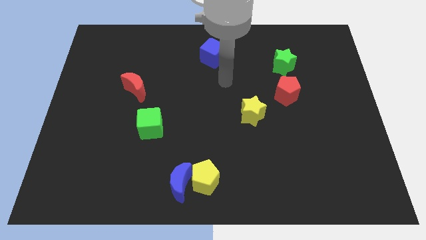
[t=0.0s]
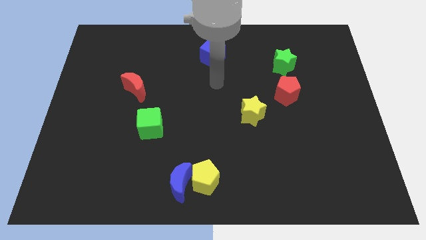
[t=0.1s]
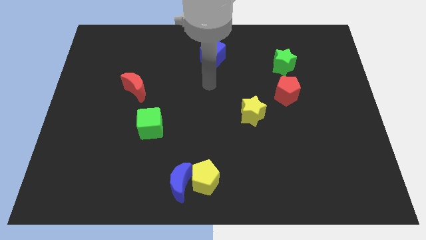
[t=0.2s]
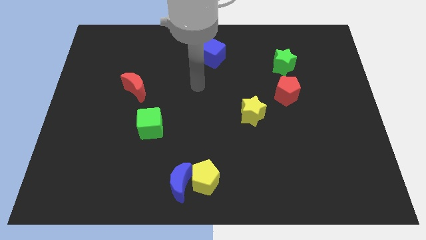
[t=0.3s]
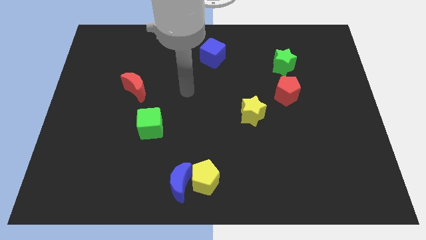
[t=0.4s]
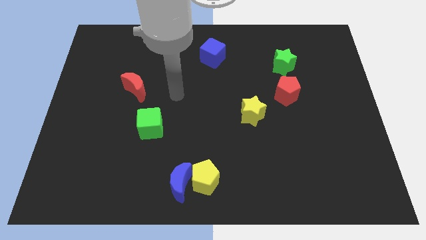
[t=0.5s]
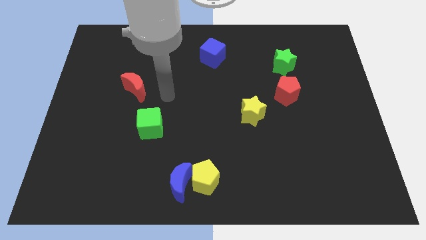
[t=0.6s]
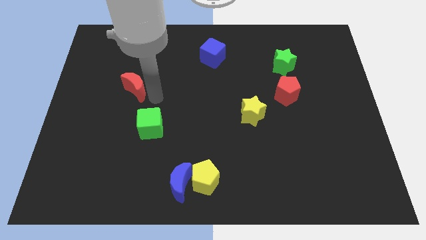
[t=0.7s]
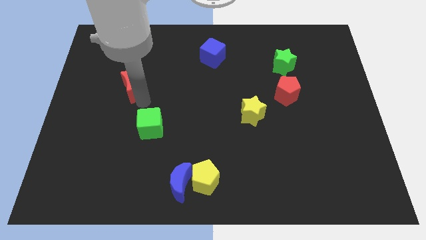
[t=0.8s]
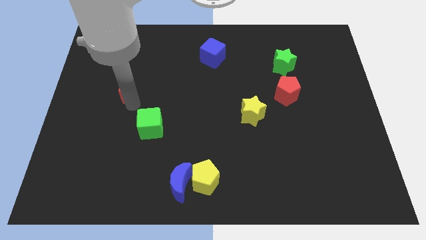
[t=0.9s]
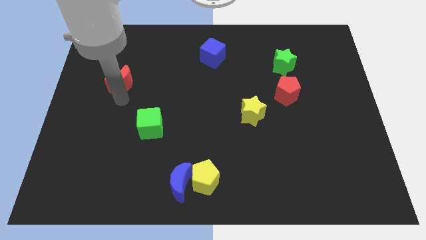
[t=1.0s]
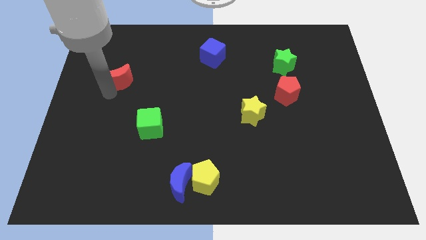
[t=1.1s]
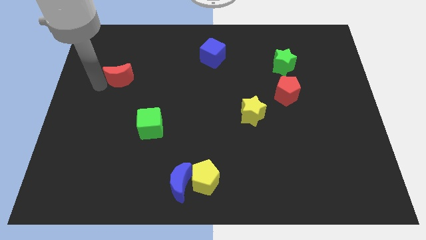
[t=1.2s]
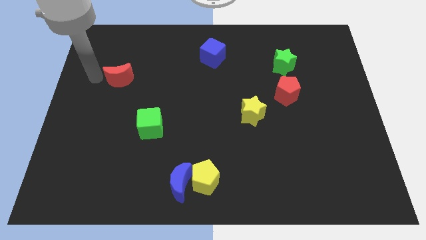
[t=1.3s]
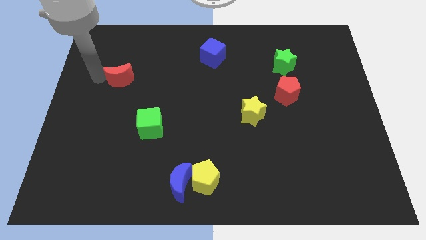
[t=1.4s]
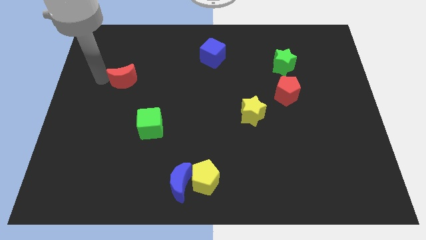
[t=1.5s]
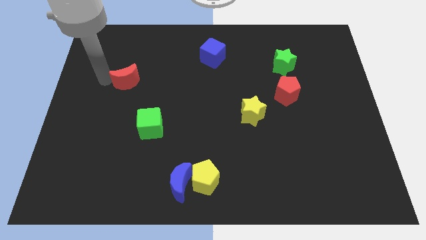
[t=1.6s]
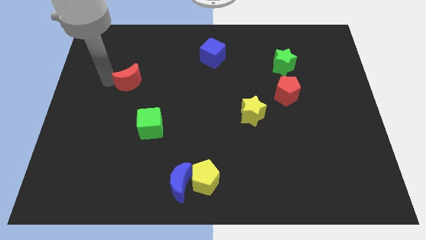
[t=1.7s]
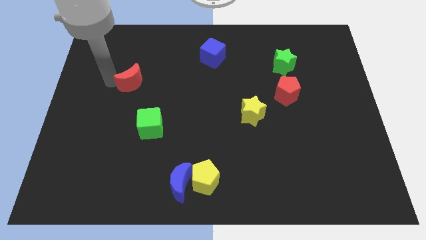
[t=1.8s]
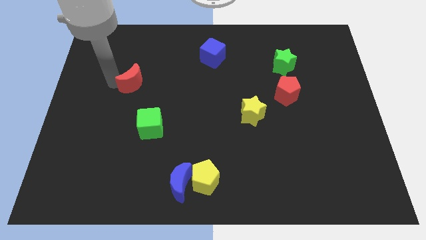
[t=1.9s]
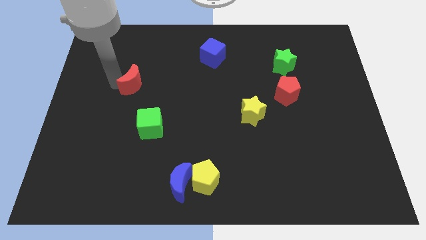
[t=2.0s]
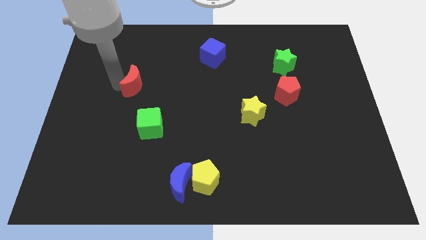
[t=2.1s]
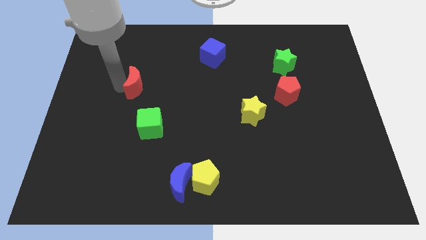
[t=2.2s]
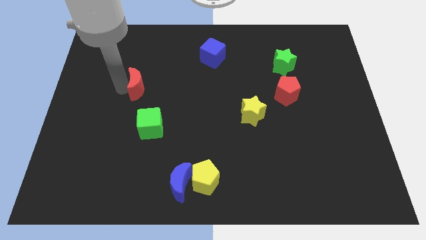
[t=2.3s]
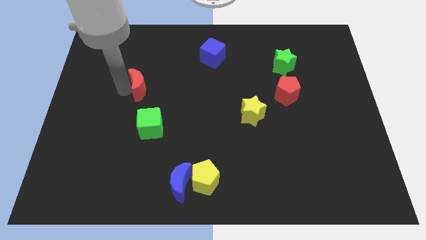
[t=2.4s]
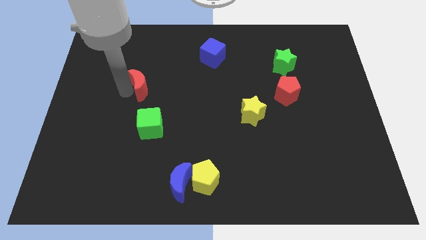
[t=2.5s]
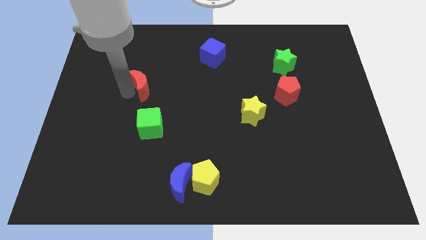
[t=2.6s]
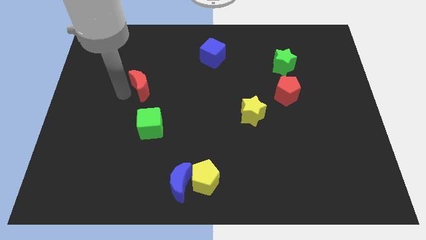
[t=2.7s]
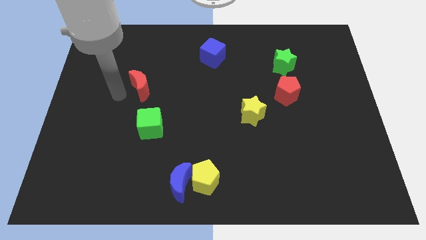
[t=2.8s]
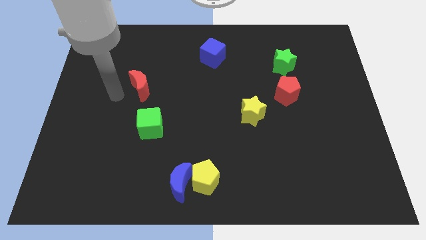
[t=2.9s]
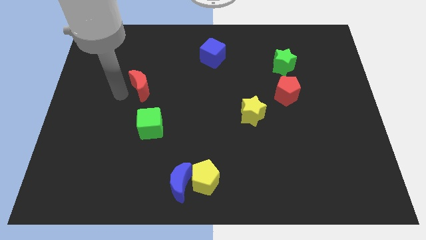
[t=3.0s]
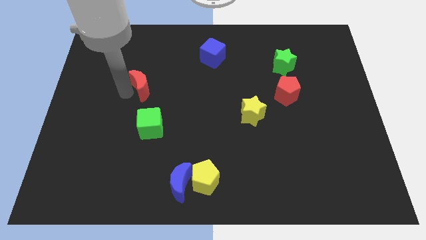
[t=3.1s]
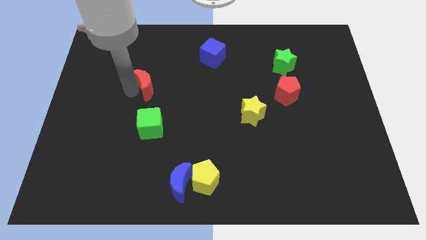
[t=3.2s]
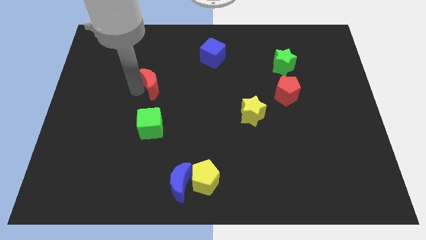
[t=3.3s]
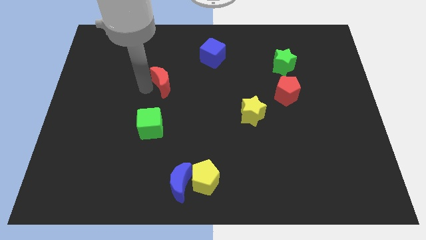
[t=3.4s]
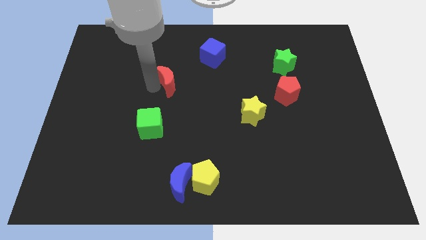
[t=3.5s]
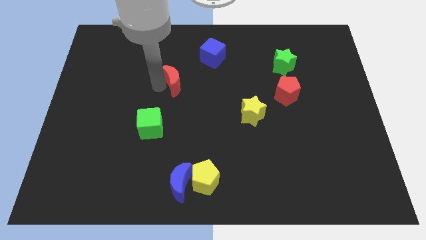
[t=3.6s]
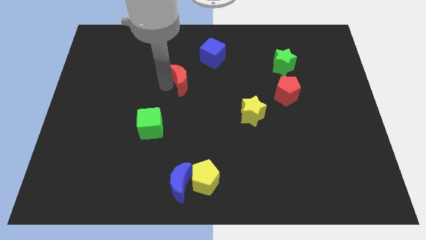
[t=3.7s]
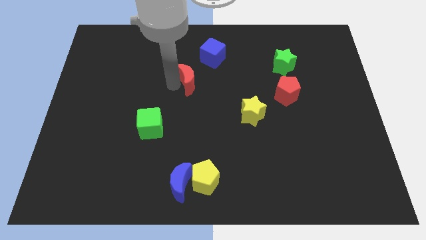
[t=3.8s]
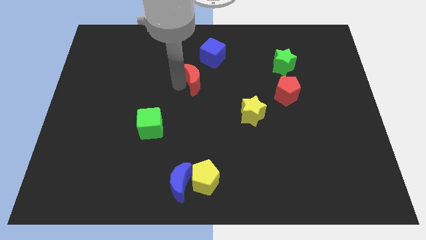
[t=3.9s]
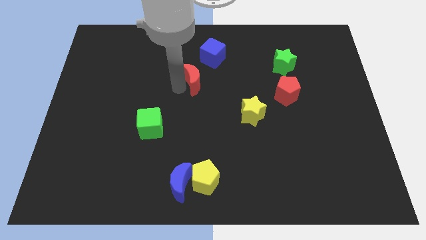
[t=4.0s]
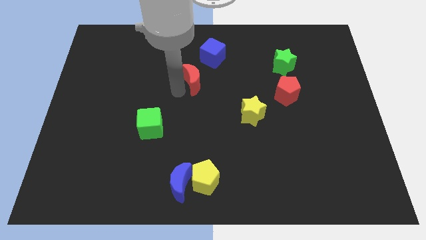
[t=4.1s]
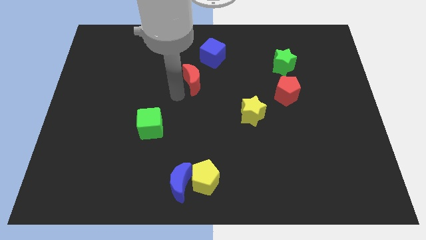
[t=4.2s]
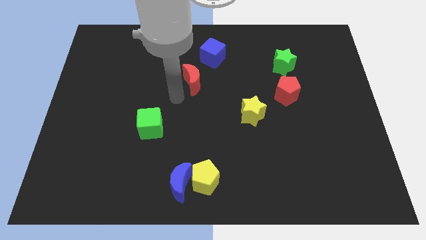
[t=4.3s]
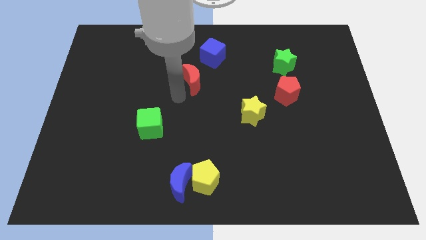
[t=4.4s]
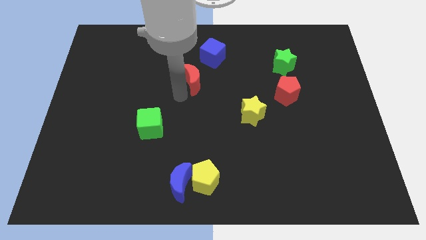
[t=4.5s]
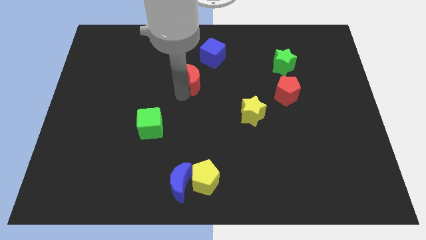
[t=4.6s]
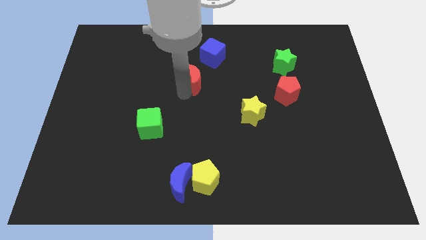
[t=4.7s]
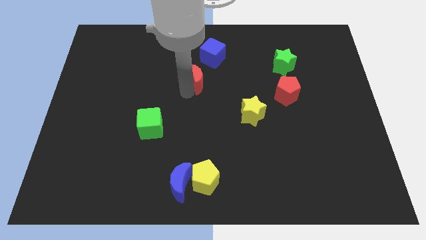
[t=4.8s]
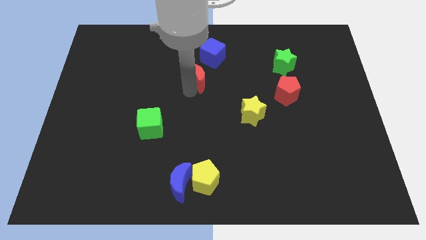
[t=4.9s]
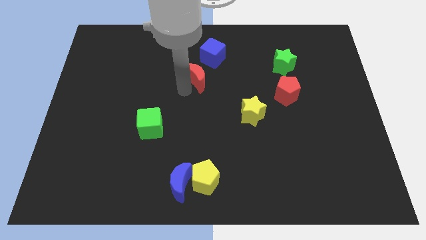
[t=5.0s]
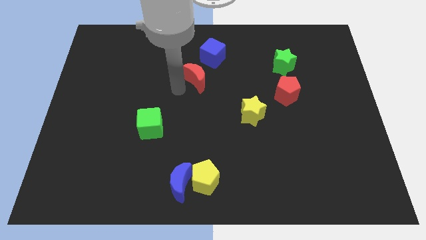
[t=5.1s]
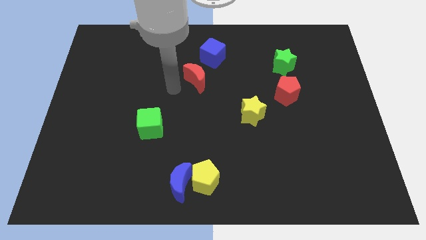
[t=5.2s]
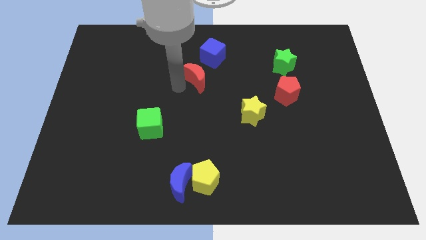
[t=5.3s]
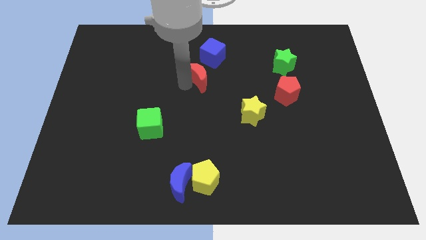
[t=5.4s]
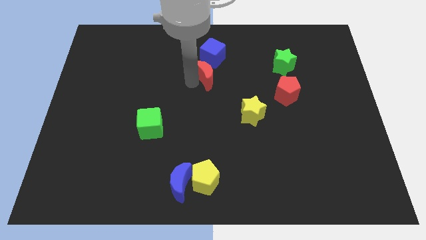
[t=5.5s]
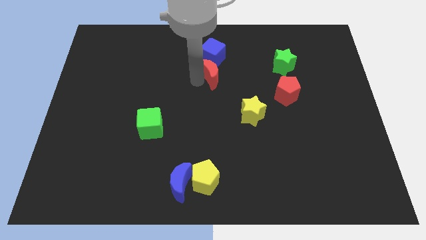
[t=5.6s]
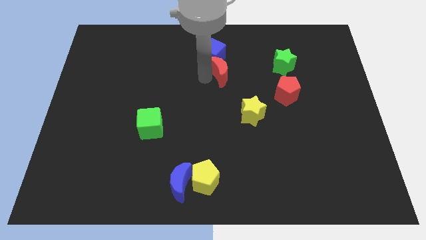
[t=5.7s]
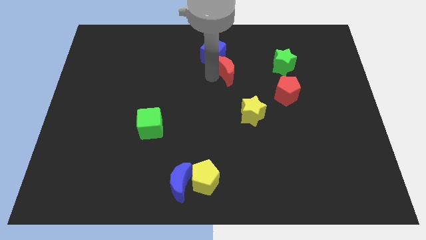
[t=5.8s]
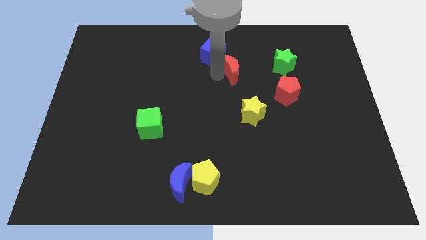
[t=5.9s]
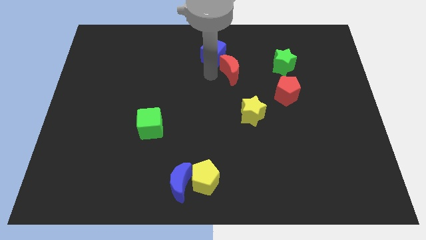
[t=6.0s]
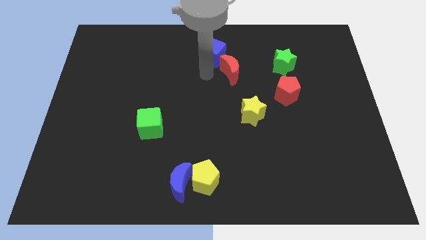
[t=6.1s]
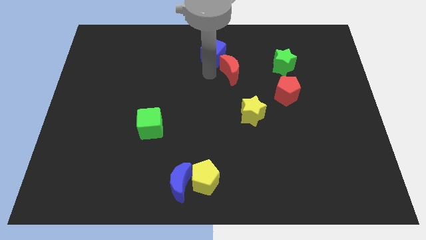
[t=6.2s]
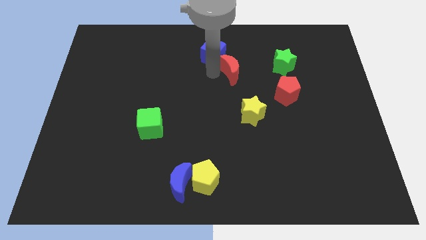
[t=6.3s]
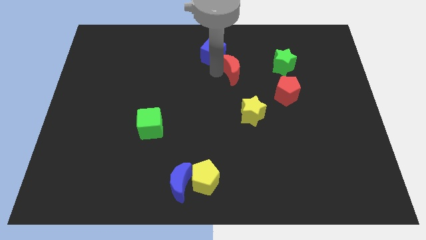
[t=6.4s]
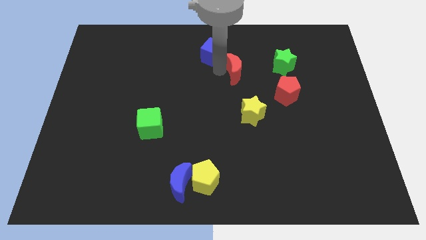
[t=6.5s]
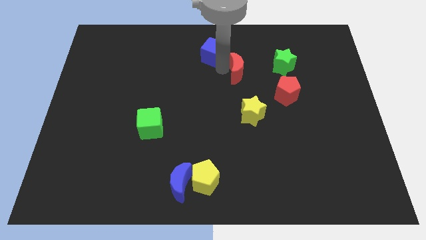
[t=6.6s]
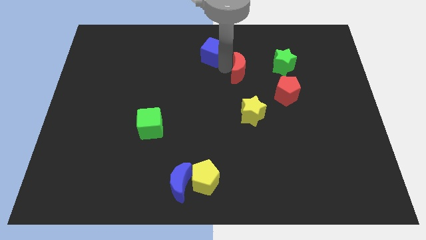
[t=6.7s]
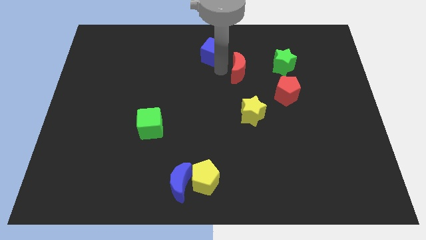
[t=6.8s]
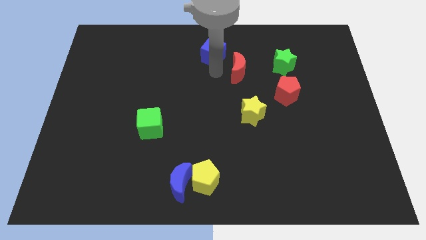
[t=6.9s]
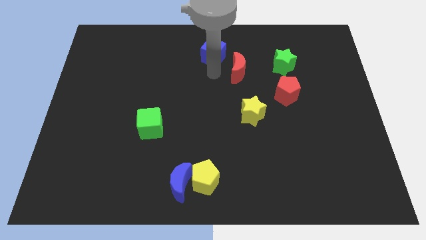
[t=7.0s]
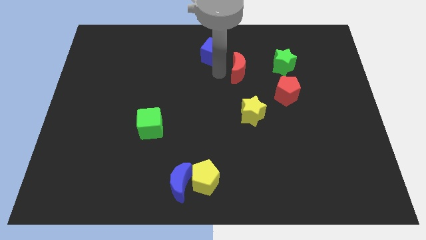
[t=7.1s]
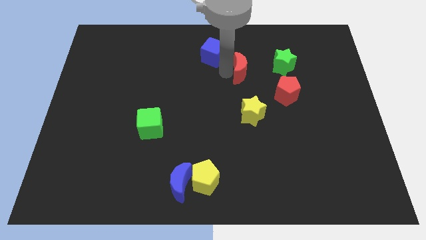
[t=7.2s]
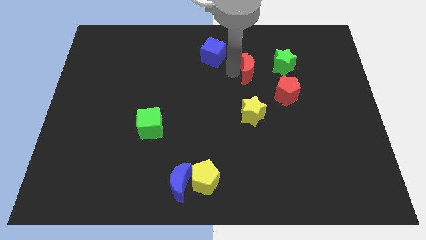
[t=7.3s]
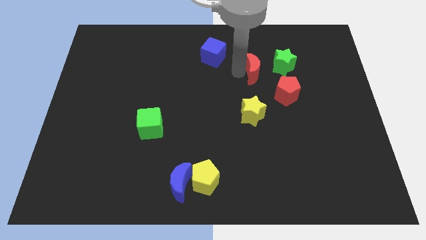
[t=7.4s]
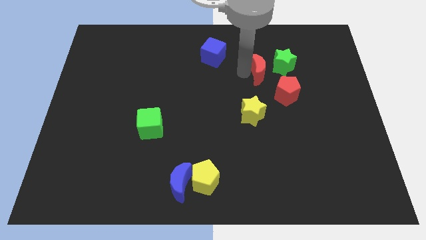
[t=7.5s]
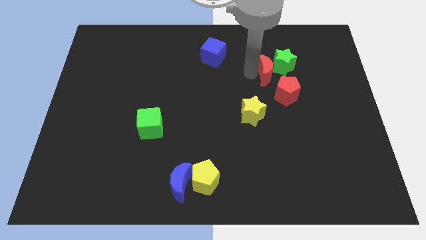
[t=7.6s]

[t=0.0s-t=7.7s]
put the red moon to the green star
